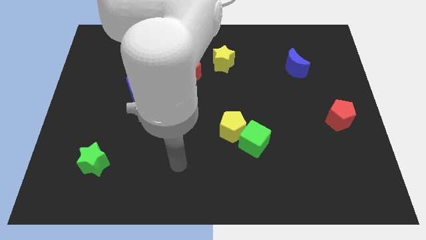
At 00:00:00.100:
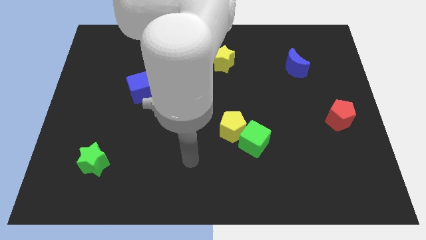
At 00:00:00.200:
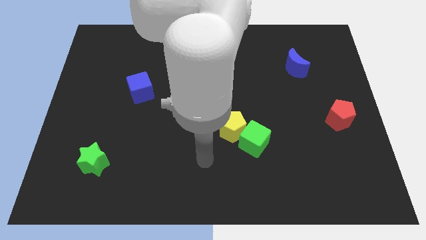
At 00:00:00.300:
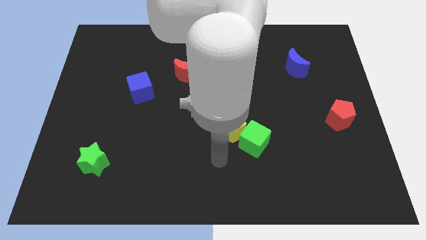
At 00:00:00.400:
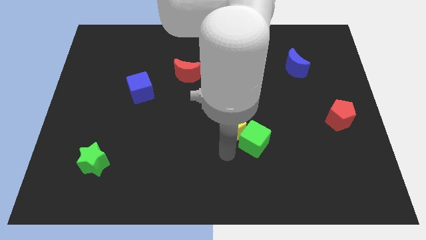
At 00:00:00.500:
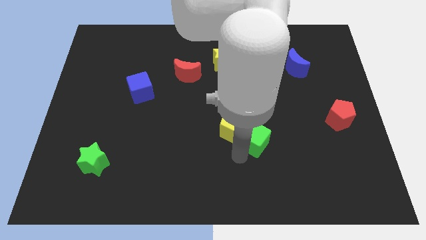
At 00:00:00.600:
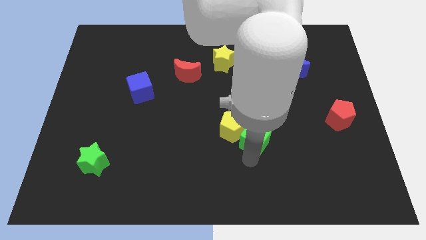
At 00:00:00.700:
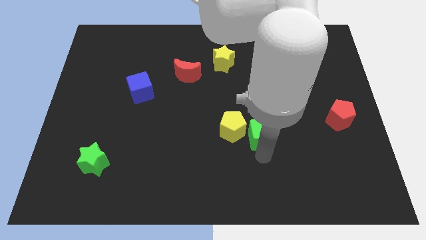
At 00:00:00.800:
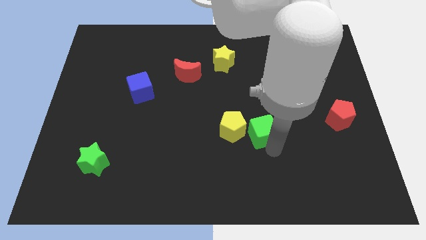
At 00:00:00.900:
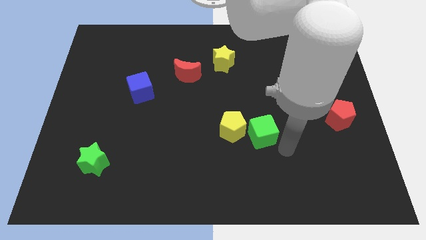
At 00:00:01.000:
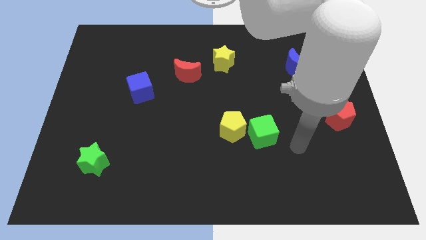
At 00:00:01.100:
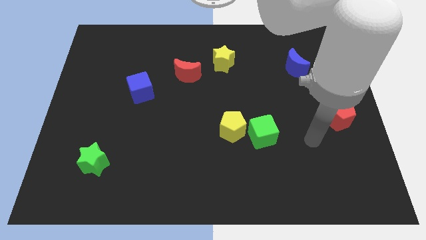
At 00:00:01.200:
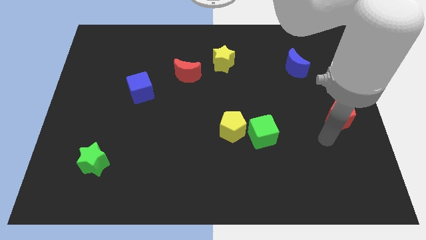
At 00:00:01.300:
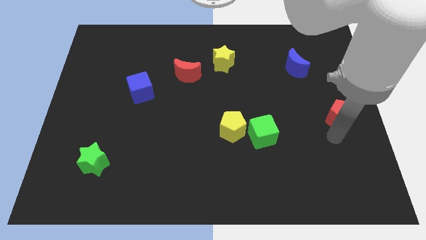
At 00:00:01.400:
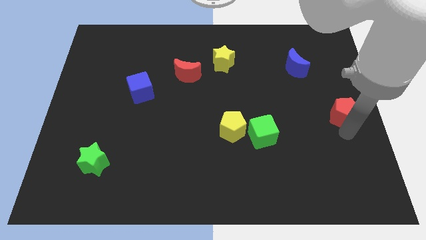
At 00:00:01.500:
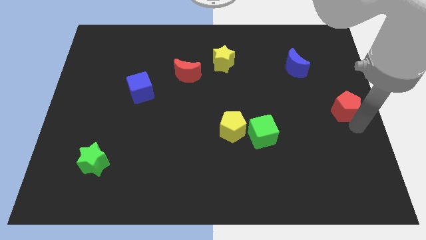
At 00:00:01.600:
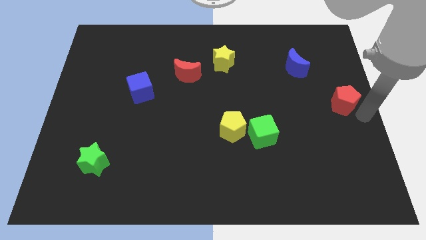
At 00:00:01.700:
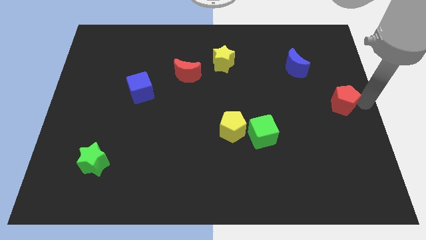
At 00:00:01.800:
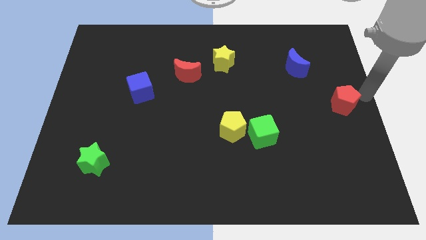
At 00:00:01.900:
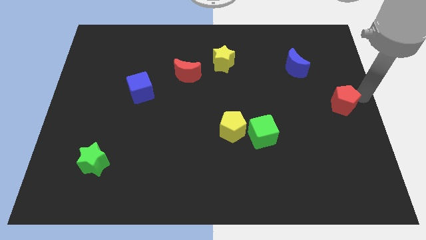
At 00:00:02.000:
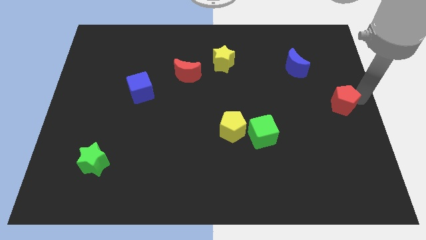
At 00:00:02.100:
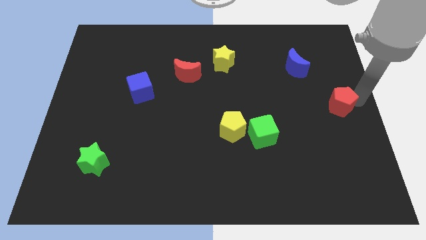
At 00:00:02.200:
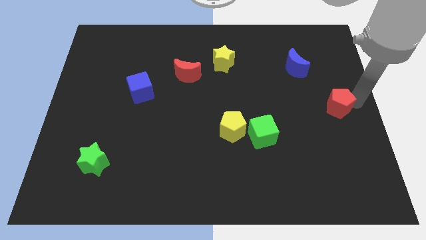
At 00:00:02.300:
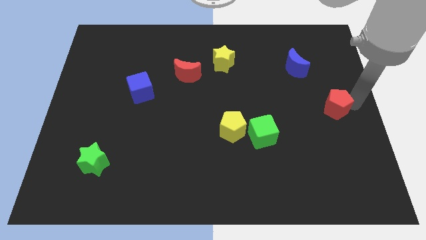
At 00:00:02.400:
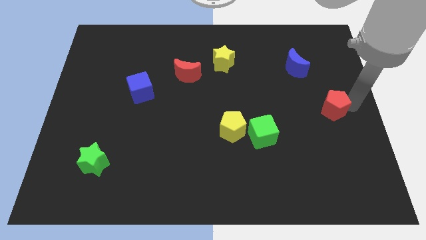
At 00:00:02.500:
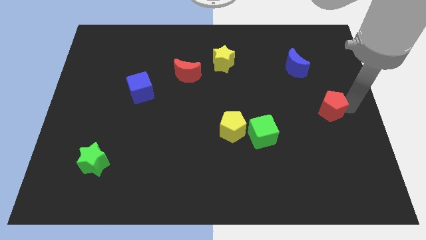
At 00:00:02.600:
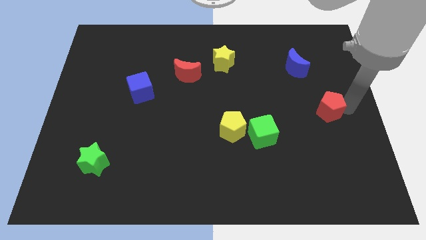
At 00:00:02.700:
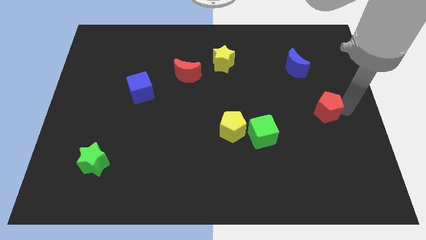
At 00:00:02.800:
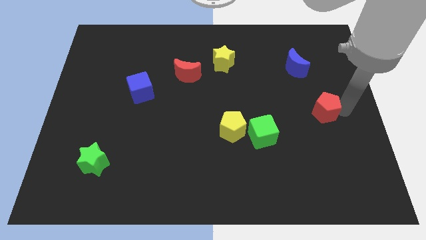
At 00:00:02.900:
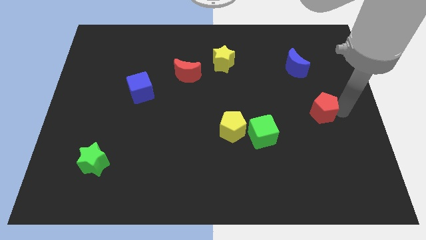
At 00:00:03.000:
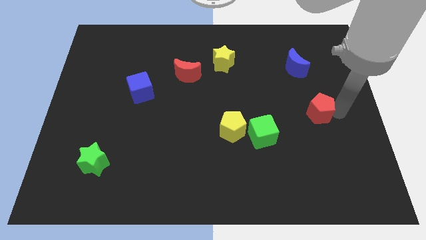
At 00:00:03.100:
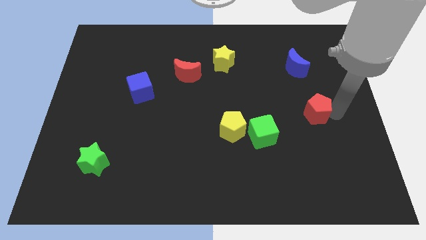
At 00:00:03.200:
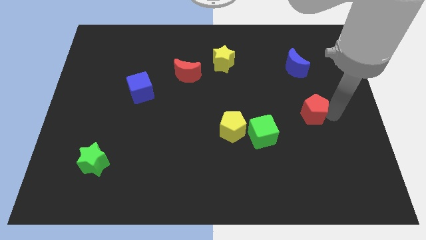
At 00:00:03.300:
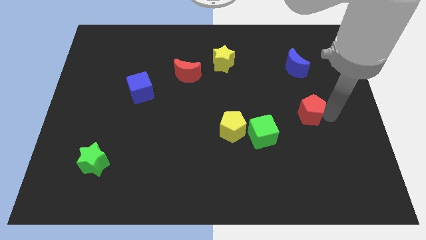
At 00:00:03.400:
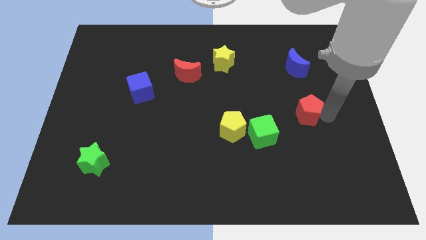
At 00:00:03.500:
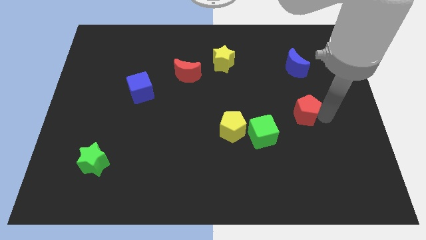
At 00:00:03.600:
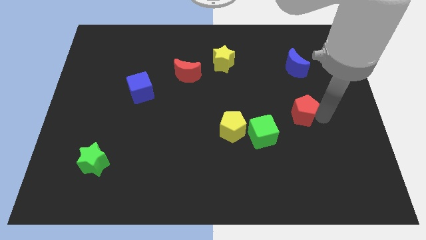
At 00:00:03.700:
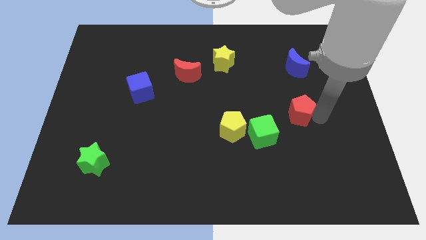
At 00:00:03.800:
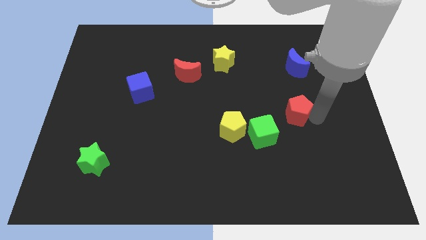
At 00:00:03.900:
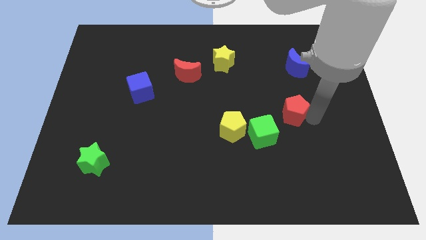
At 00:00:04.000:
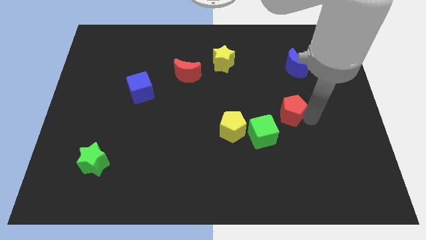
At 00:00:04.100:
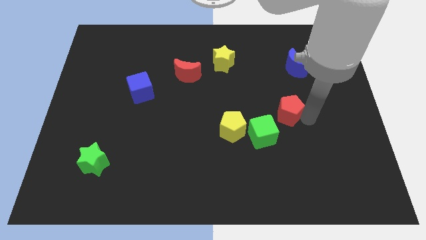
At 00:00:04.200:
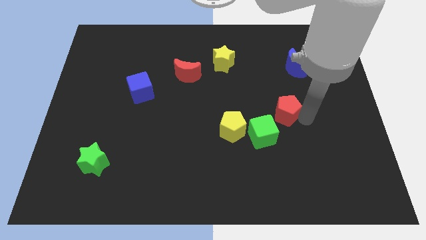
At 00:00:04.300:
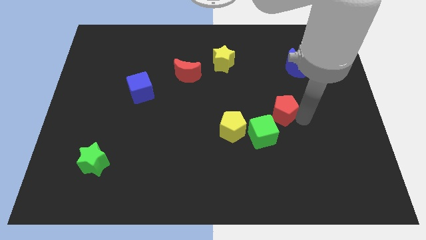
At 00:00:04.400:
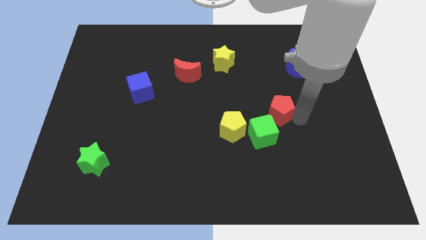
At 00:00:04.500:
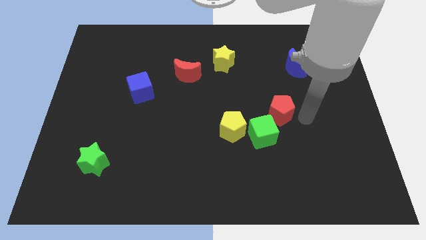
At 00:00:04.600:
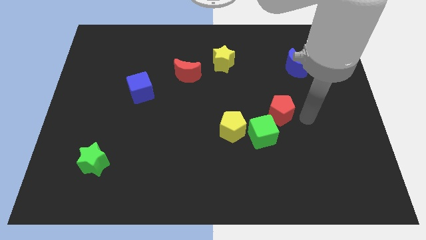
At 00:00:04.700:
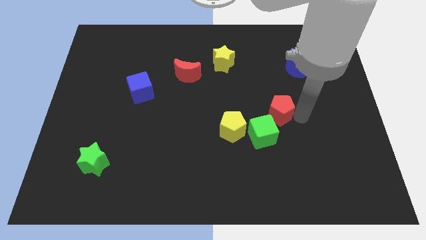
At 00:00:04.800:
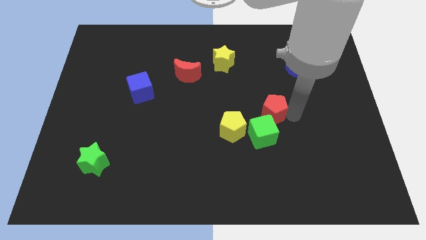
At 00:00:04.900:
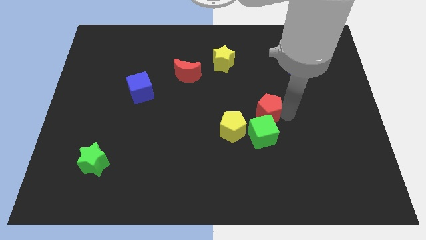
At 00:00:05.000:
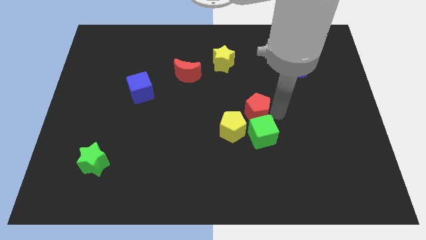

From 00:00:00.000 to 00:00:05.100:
move the red pentagon to the middle of the board
